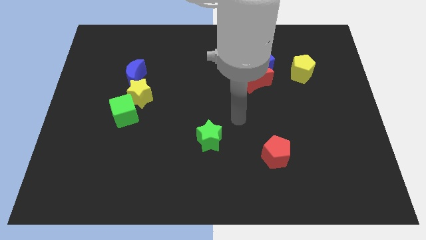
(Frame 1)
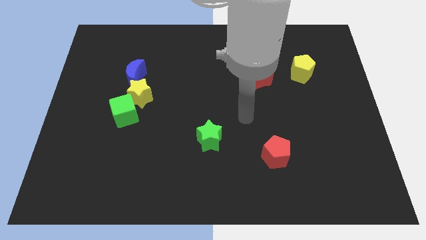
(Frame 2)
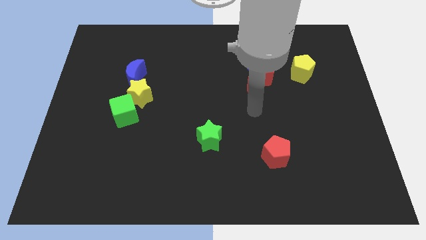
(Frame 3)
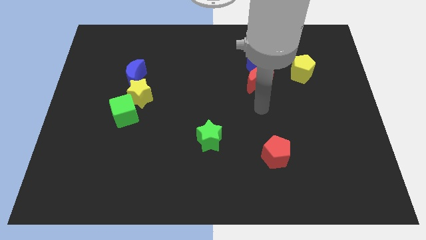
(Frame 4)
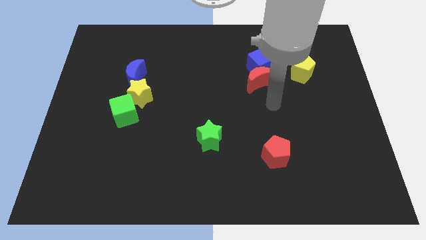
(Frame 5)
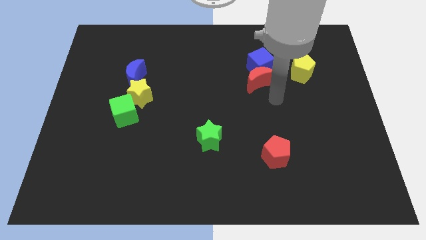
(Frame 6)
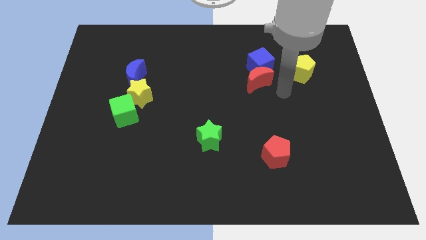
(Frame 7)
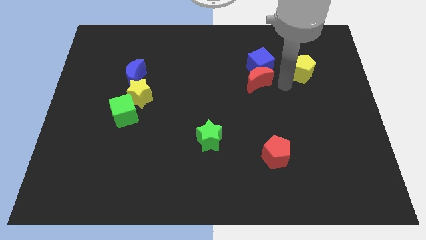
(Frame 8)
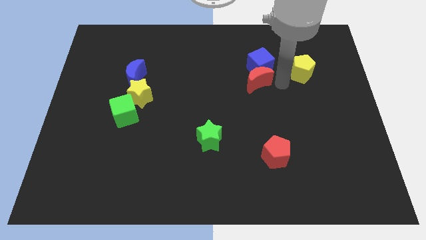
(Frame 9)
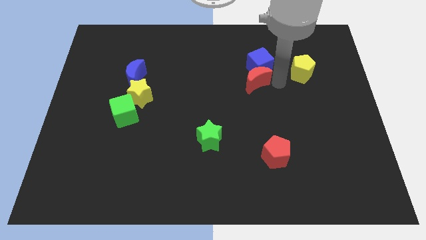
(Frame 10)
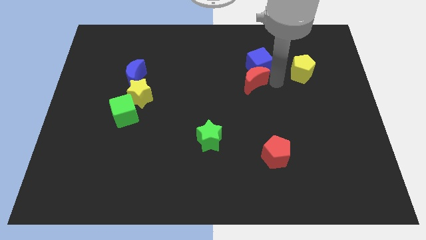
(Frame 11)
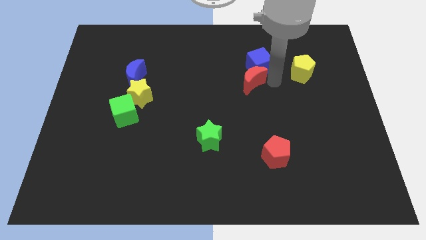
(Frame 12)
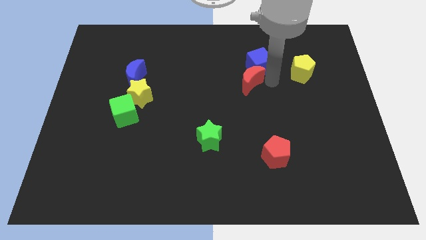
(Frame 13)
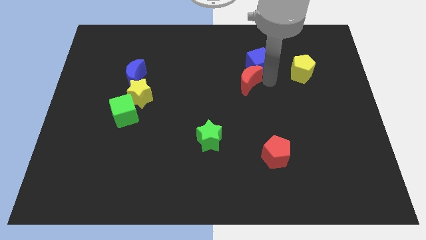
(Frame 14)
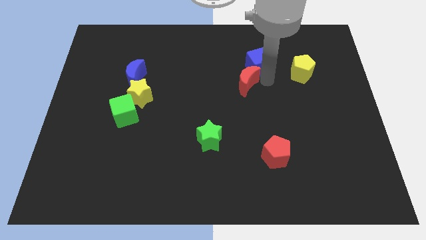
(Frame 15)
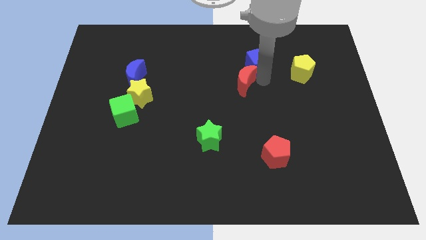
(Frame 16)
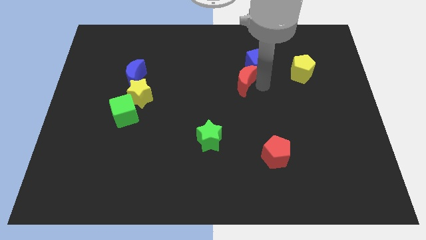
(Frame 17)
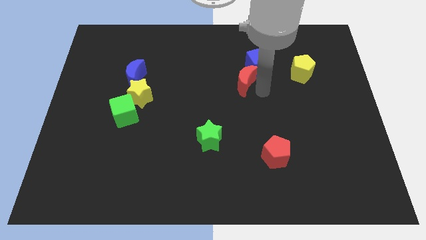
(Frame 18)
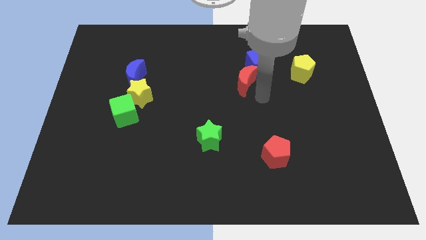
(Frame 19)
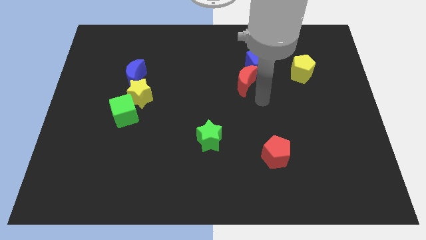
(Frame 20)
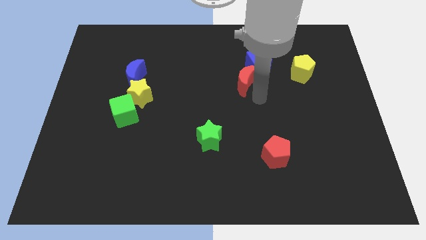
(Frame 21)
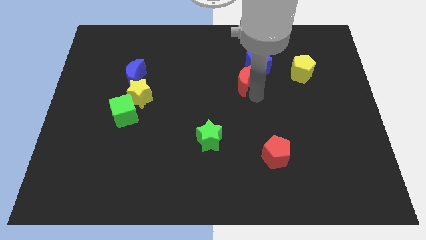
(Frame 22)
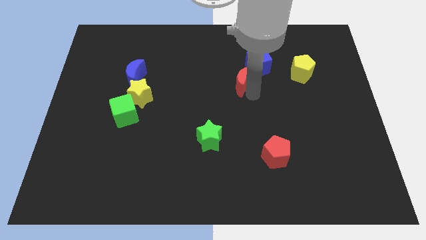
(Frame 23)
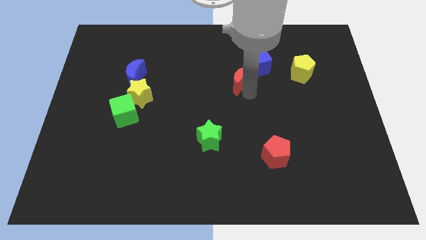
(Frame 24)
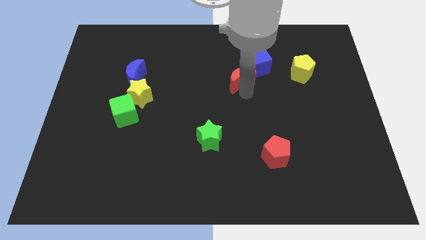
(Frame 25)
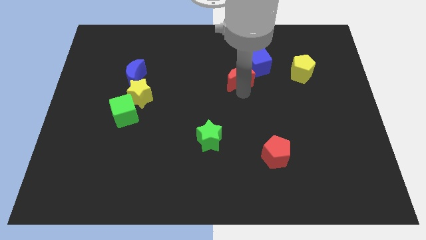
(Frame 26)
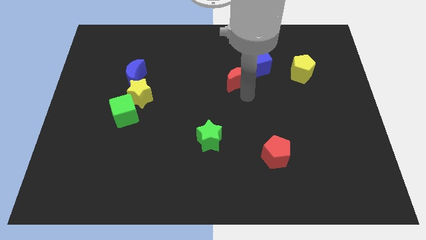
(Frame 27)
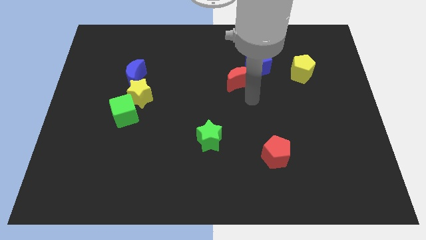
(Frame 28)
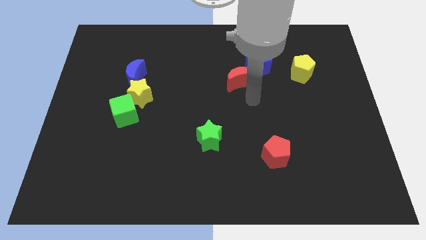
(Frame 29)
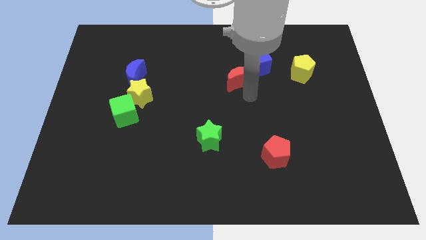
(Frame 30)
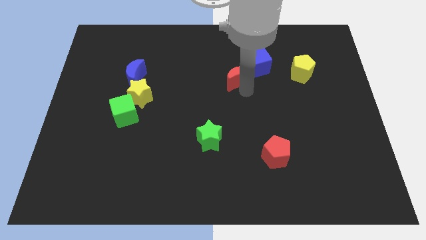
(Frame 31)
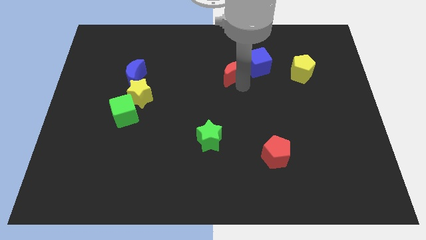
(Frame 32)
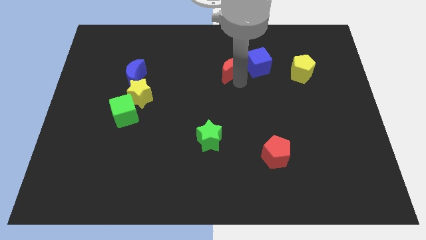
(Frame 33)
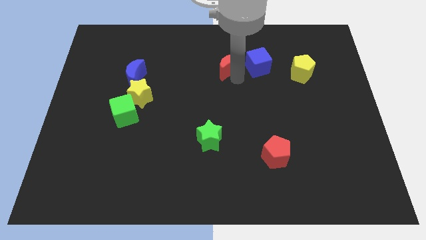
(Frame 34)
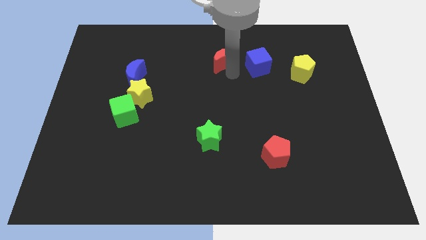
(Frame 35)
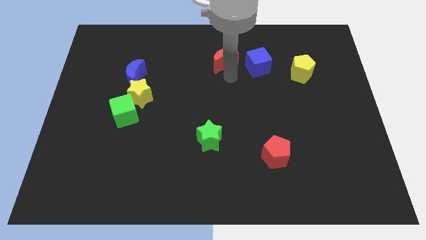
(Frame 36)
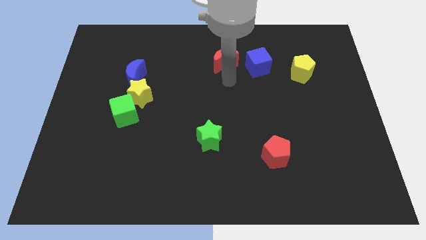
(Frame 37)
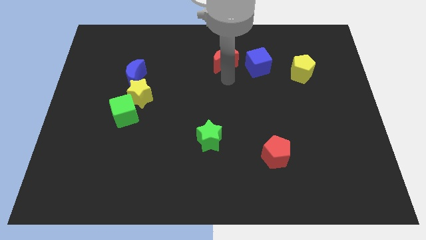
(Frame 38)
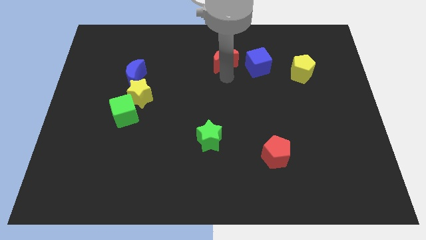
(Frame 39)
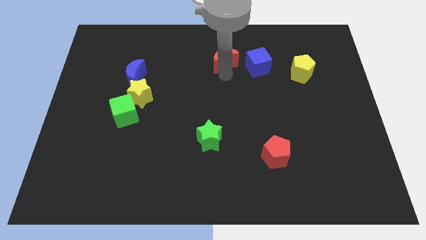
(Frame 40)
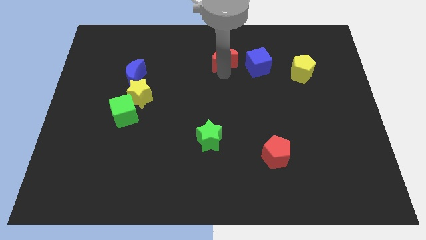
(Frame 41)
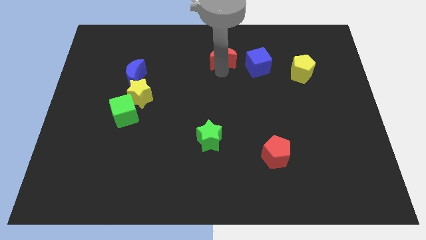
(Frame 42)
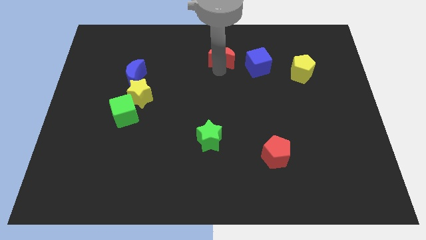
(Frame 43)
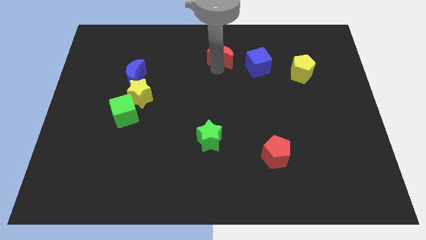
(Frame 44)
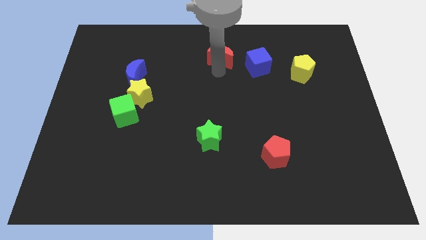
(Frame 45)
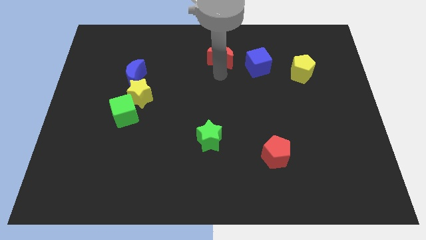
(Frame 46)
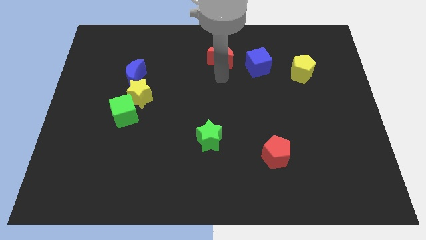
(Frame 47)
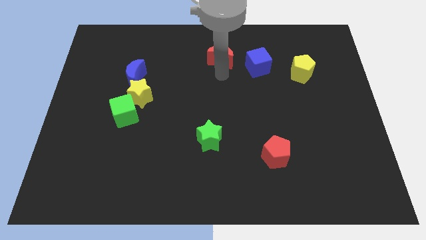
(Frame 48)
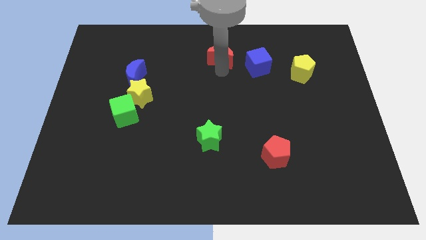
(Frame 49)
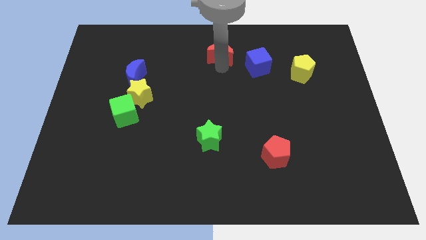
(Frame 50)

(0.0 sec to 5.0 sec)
move the red moon to the top

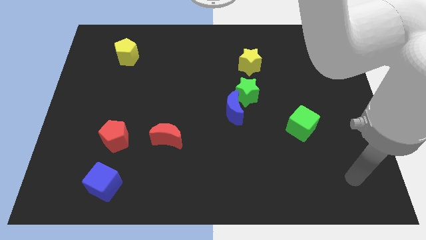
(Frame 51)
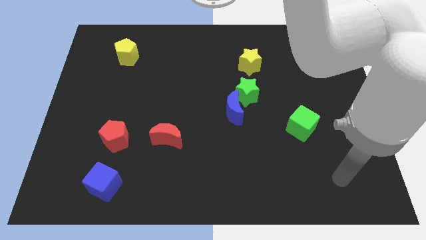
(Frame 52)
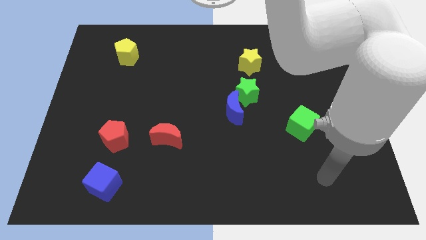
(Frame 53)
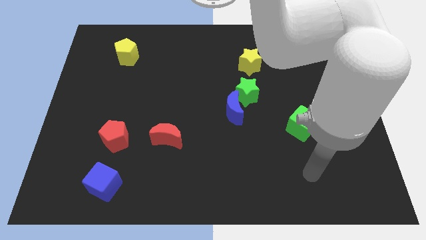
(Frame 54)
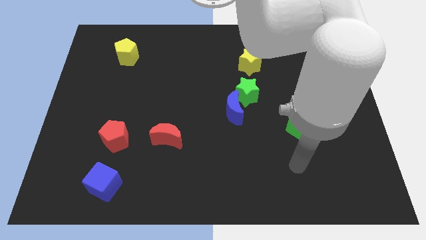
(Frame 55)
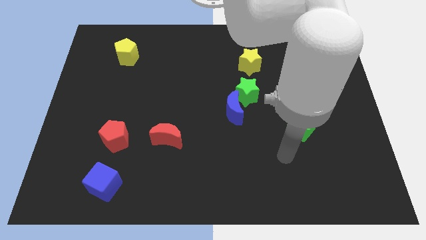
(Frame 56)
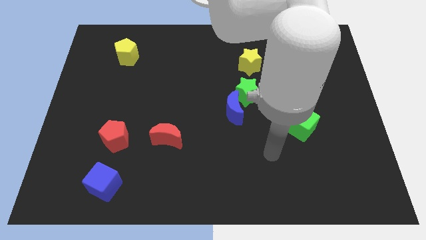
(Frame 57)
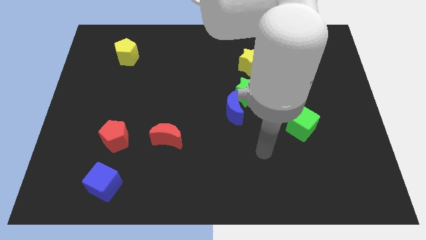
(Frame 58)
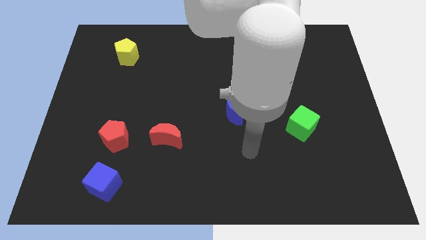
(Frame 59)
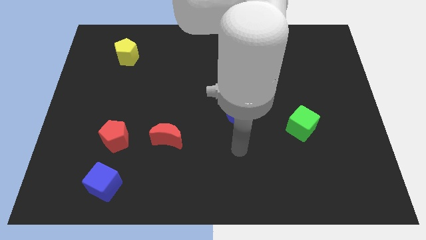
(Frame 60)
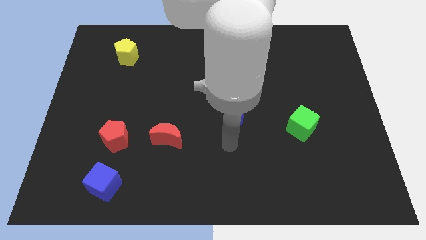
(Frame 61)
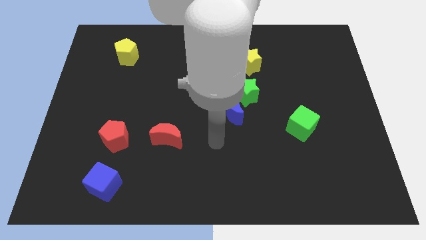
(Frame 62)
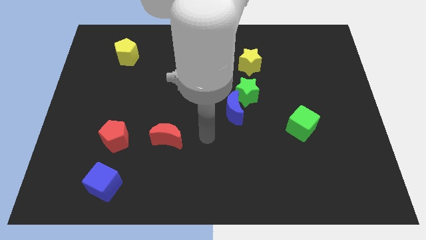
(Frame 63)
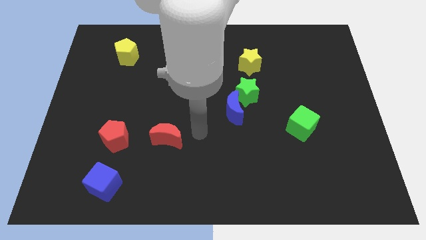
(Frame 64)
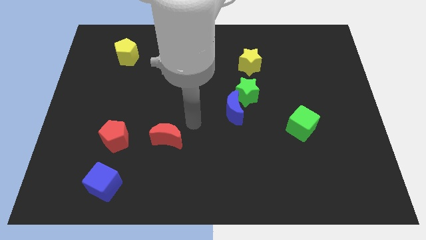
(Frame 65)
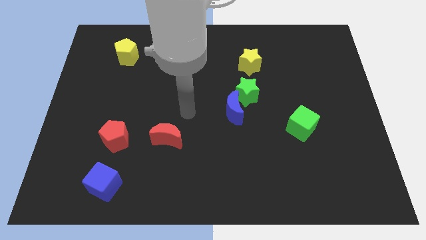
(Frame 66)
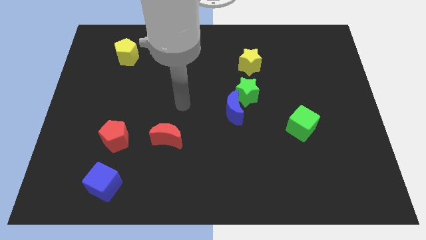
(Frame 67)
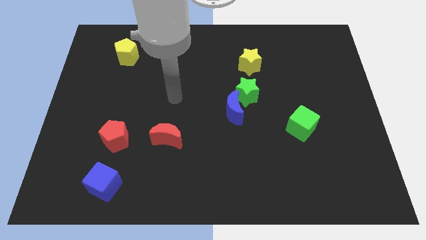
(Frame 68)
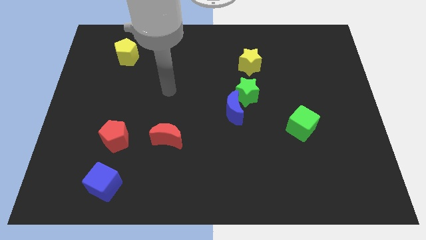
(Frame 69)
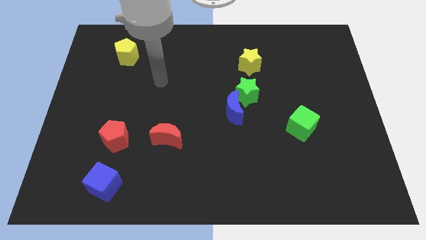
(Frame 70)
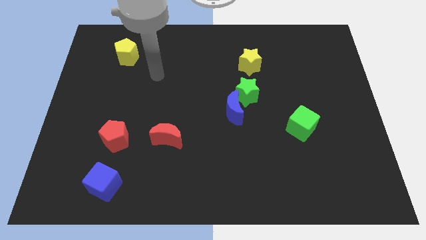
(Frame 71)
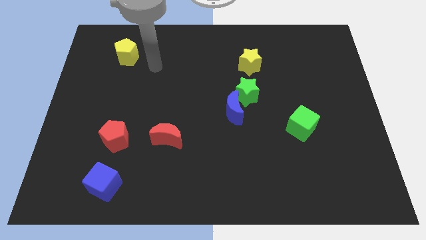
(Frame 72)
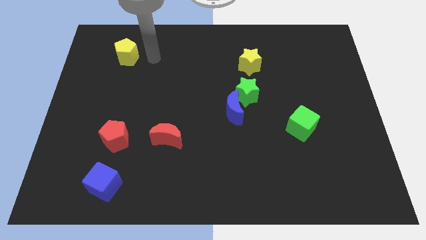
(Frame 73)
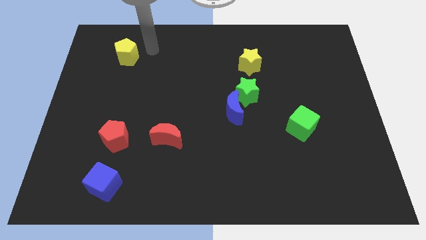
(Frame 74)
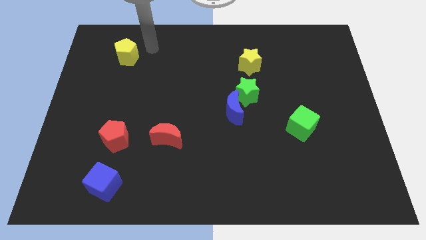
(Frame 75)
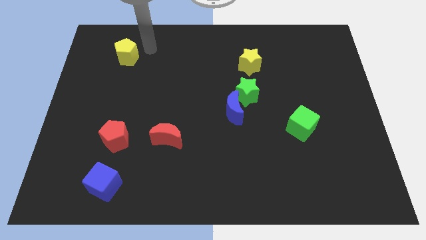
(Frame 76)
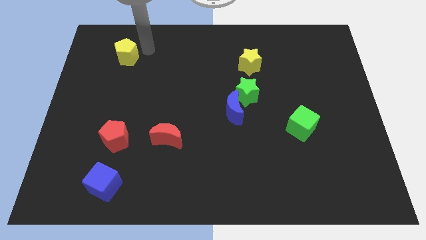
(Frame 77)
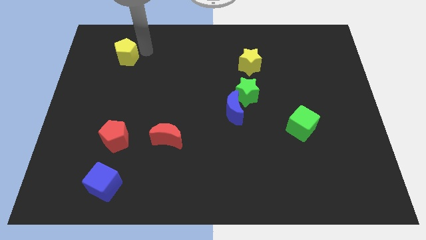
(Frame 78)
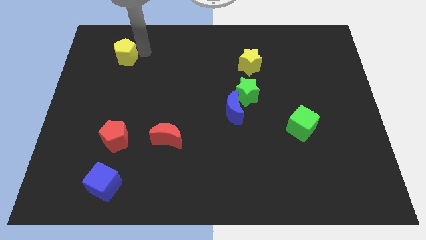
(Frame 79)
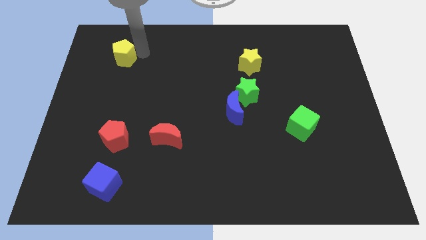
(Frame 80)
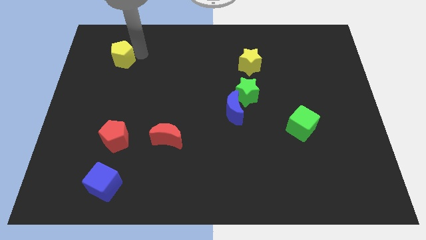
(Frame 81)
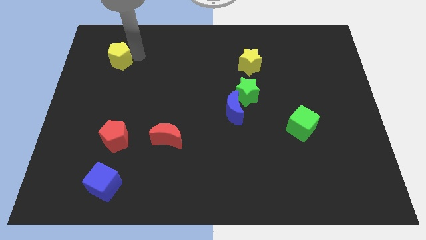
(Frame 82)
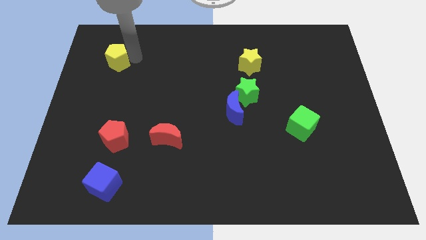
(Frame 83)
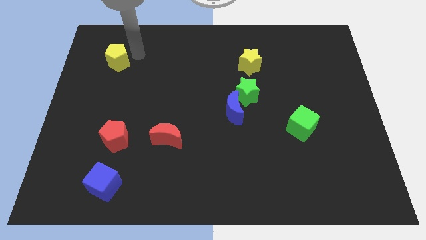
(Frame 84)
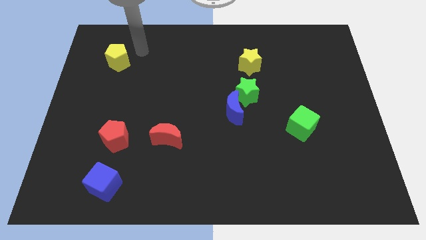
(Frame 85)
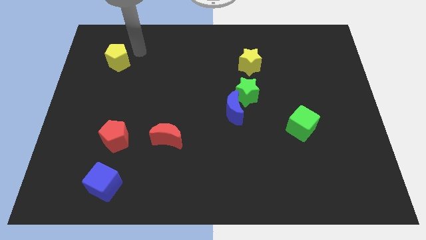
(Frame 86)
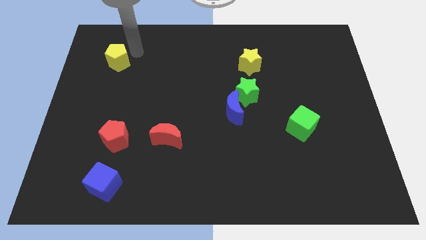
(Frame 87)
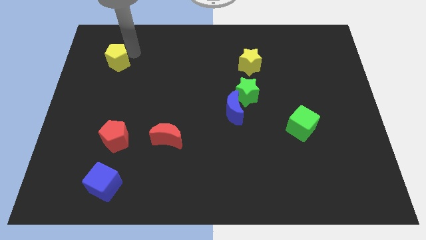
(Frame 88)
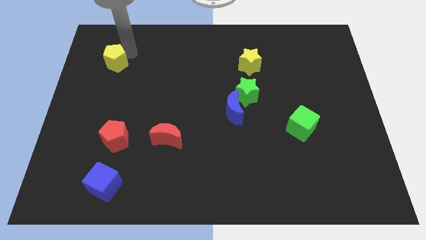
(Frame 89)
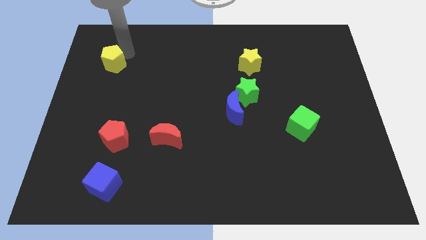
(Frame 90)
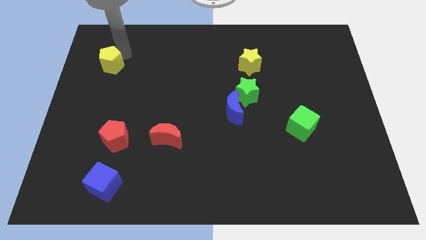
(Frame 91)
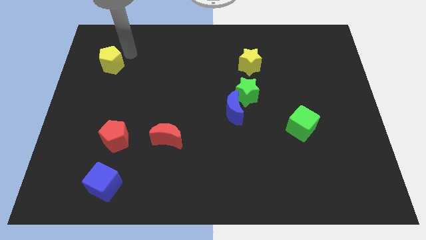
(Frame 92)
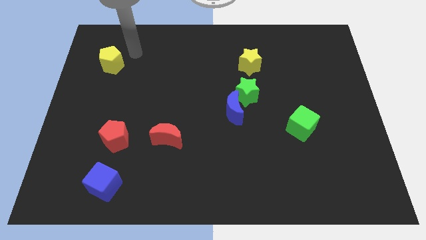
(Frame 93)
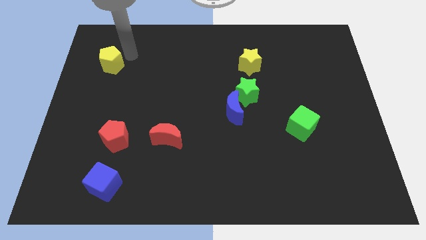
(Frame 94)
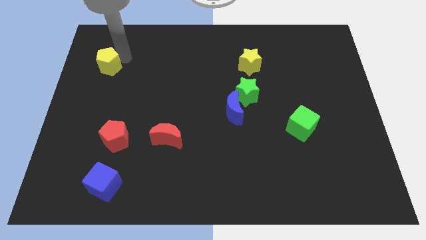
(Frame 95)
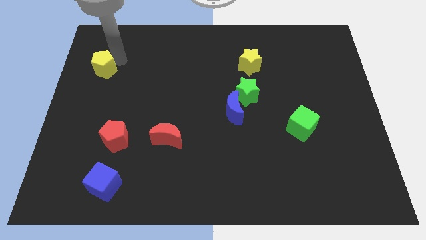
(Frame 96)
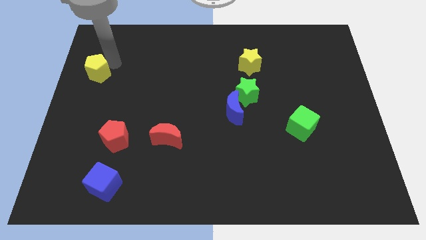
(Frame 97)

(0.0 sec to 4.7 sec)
put the yellow pentagon to the center left
